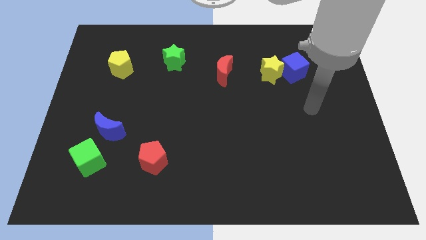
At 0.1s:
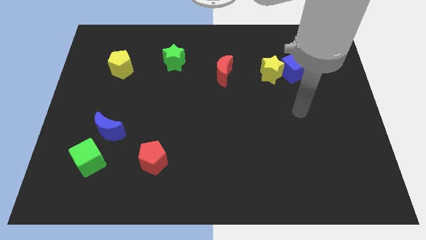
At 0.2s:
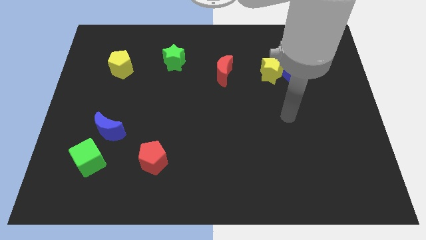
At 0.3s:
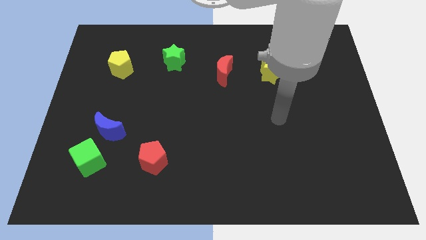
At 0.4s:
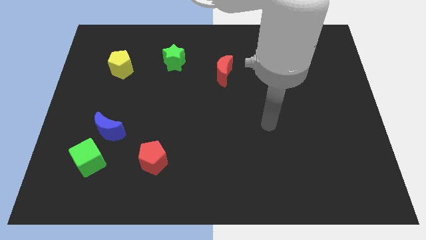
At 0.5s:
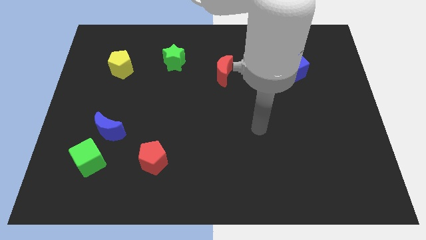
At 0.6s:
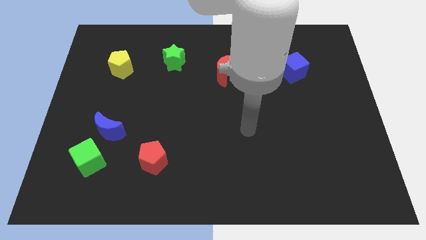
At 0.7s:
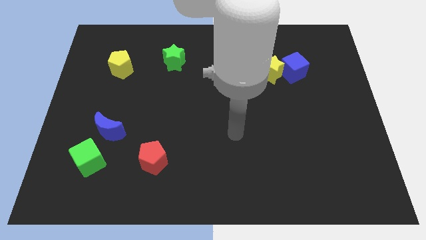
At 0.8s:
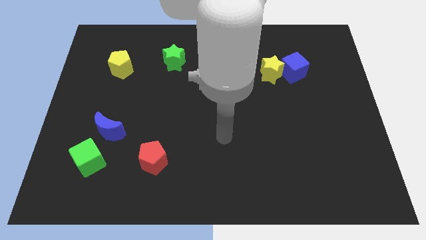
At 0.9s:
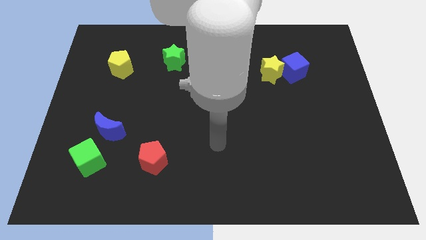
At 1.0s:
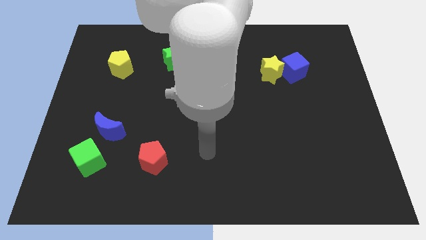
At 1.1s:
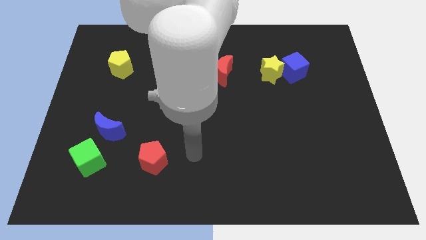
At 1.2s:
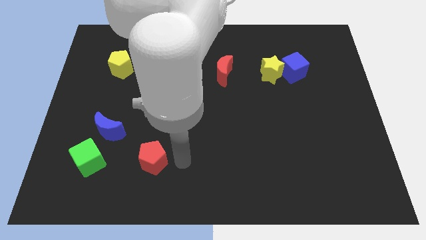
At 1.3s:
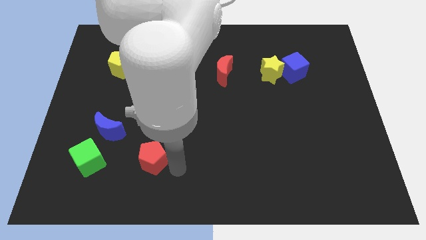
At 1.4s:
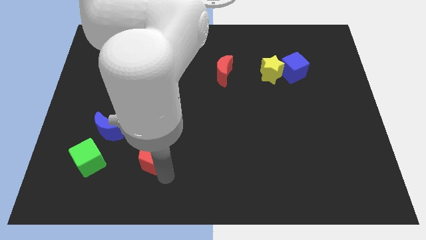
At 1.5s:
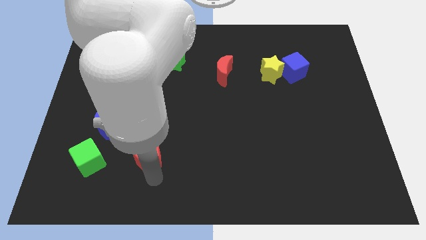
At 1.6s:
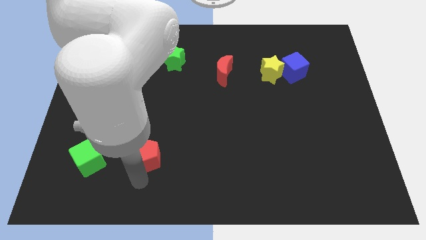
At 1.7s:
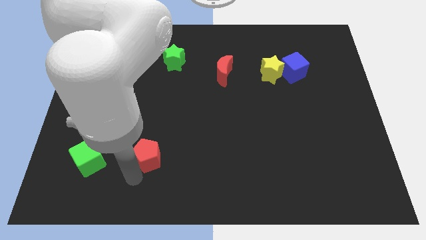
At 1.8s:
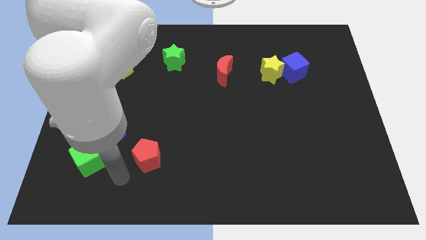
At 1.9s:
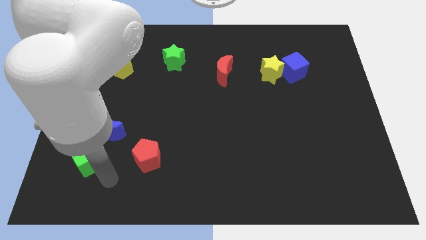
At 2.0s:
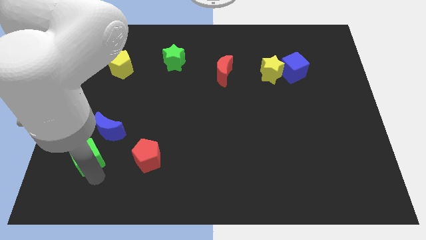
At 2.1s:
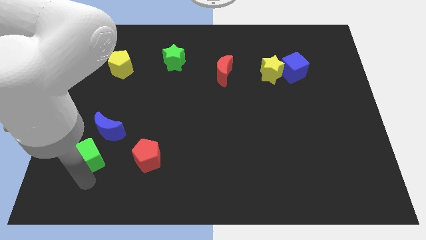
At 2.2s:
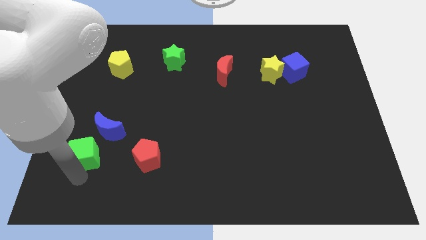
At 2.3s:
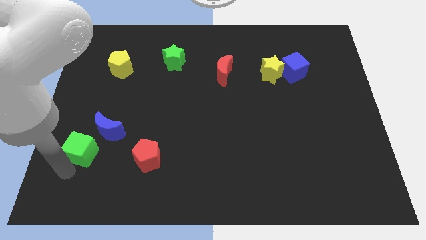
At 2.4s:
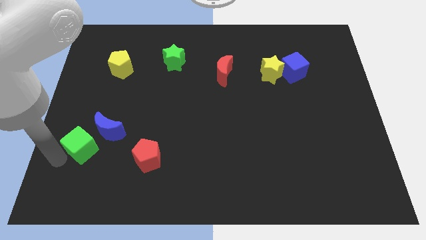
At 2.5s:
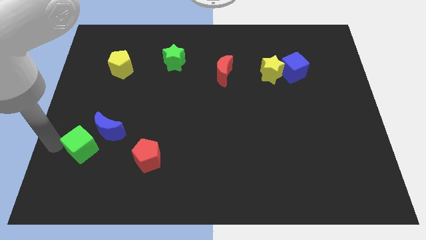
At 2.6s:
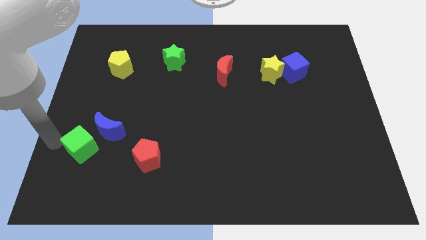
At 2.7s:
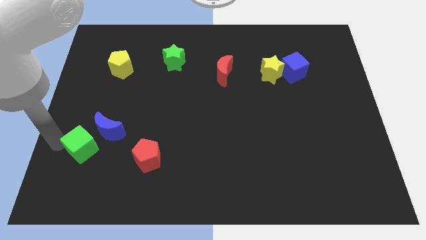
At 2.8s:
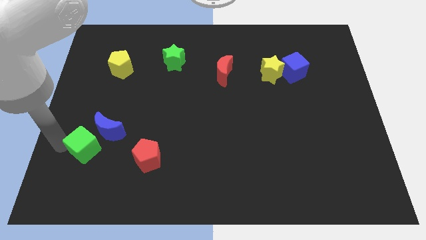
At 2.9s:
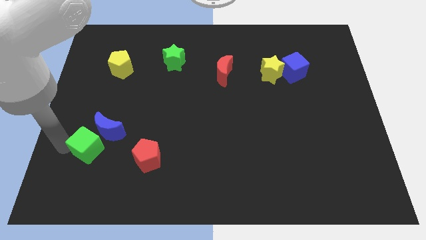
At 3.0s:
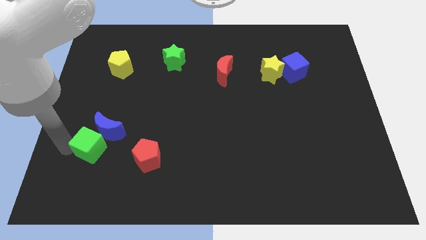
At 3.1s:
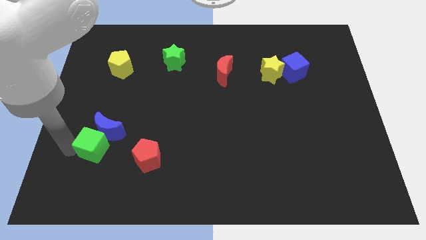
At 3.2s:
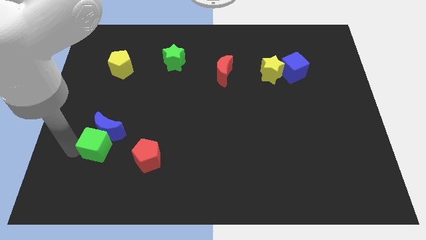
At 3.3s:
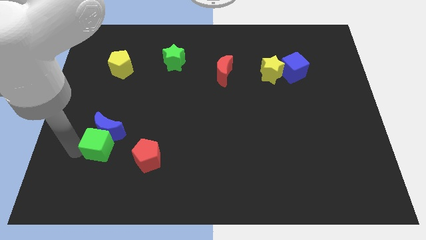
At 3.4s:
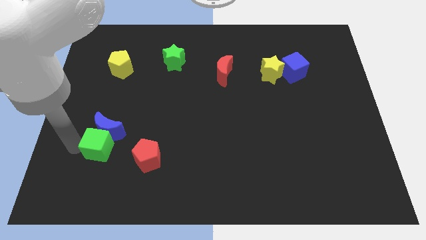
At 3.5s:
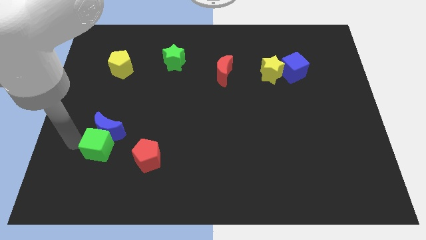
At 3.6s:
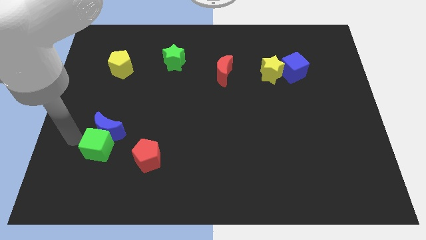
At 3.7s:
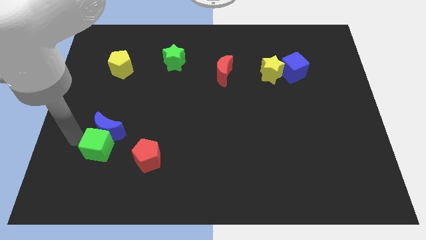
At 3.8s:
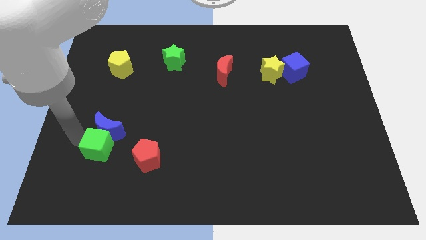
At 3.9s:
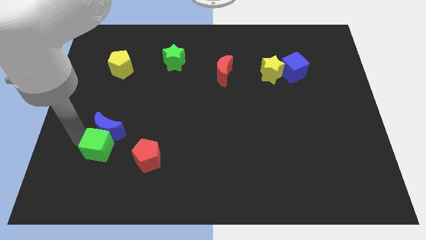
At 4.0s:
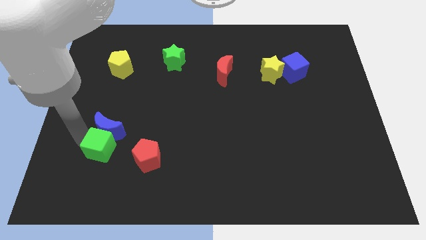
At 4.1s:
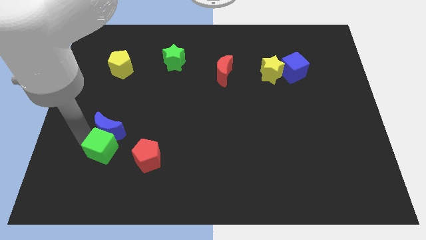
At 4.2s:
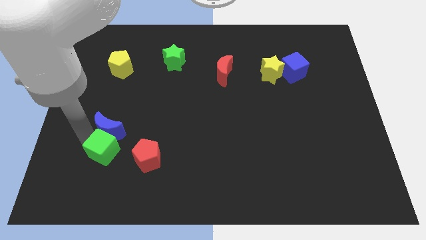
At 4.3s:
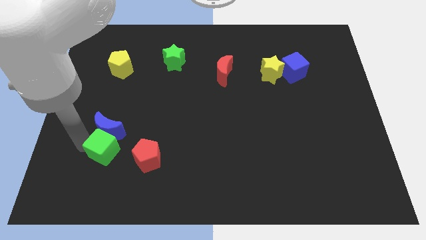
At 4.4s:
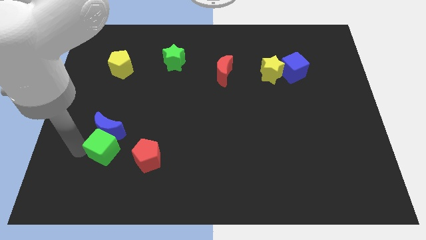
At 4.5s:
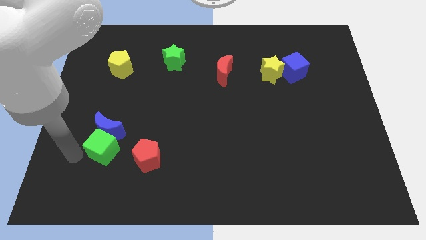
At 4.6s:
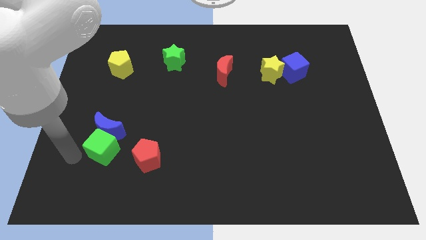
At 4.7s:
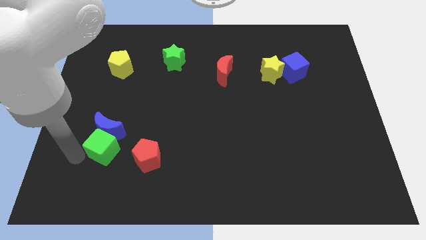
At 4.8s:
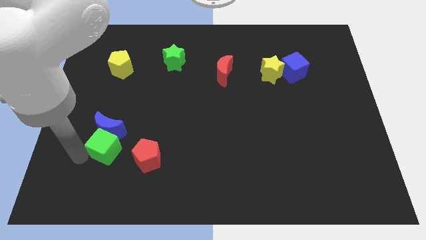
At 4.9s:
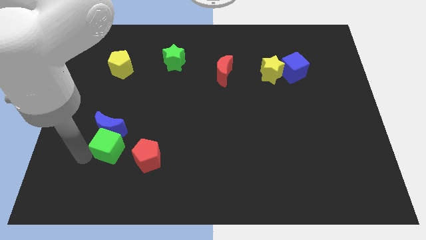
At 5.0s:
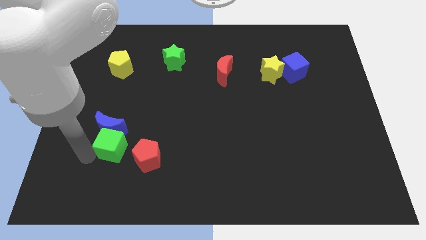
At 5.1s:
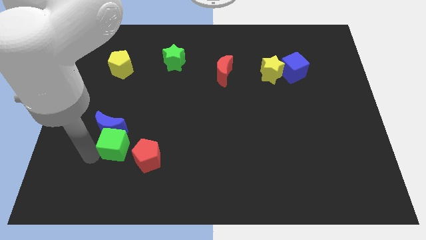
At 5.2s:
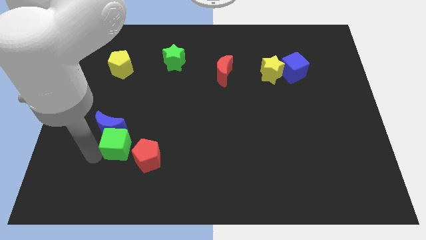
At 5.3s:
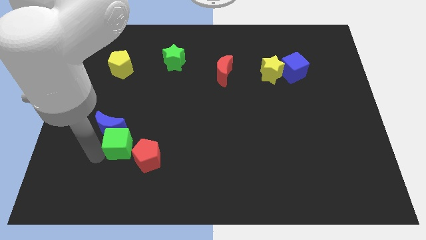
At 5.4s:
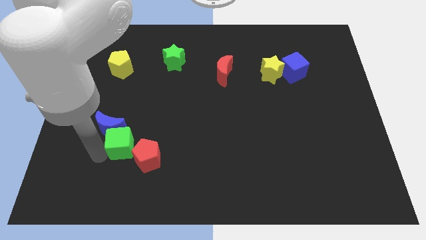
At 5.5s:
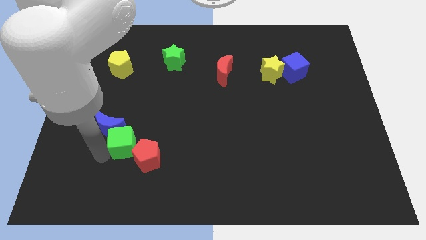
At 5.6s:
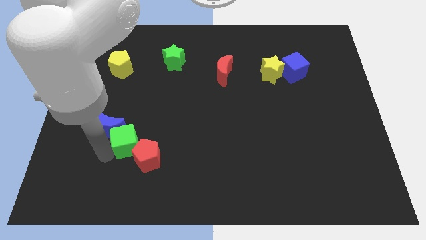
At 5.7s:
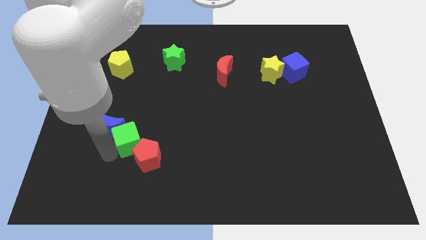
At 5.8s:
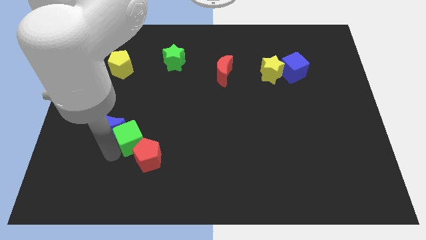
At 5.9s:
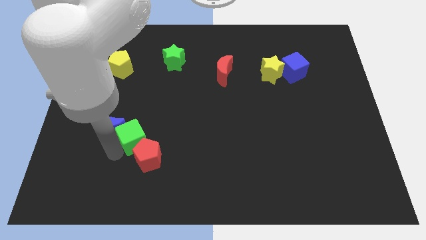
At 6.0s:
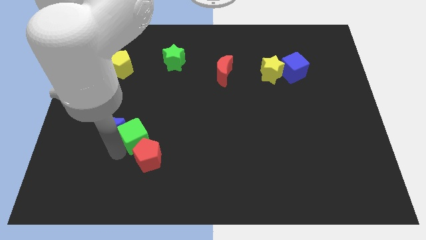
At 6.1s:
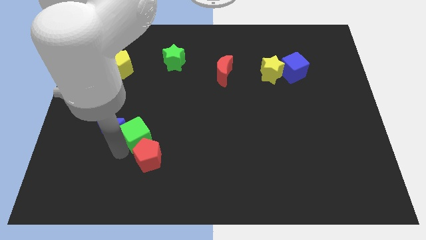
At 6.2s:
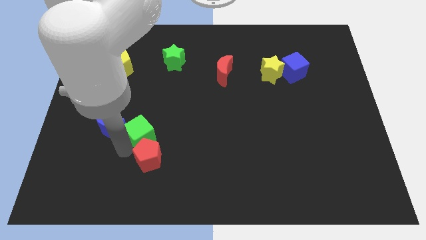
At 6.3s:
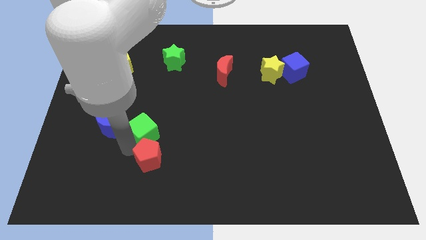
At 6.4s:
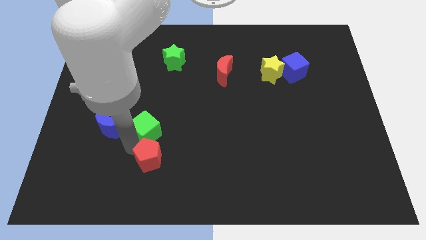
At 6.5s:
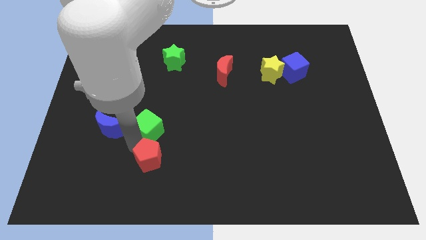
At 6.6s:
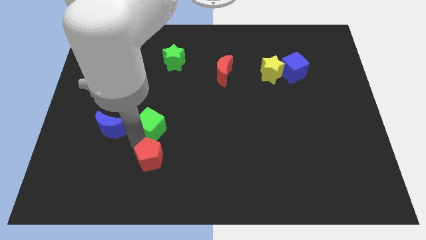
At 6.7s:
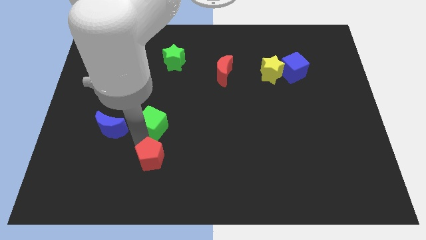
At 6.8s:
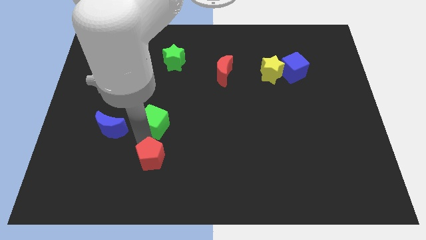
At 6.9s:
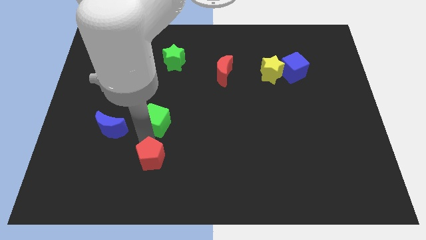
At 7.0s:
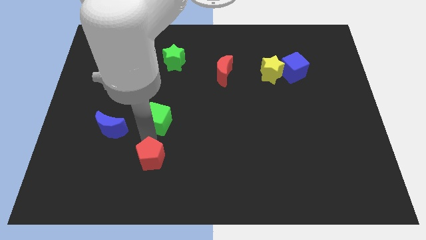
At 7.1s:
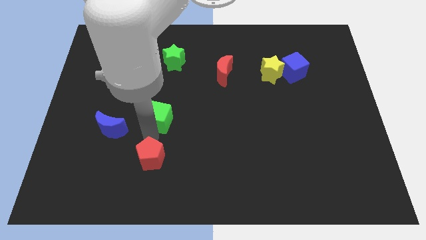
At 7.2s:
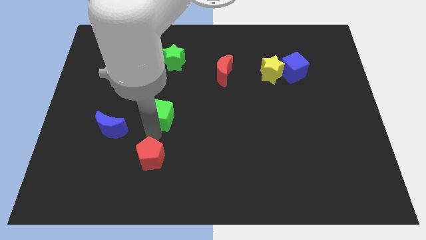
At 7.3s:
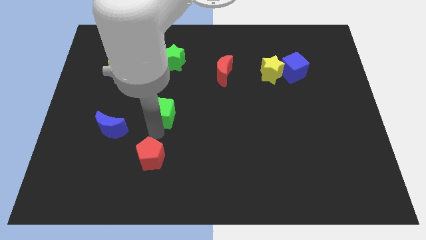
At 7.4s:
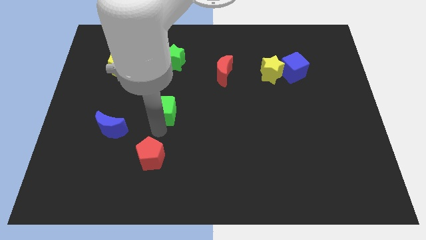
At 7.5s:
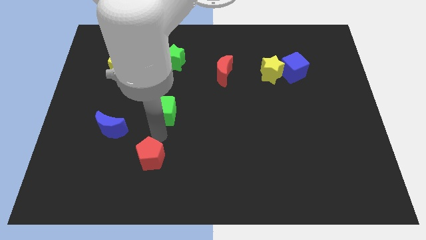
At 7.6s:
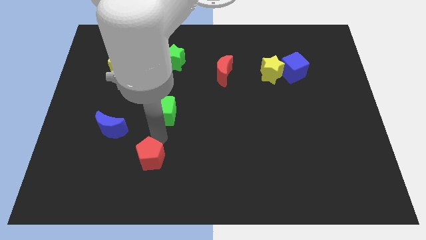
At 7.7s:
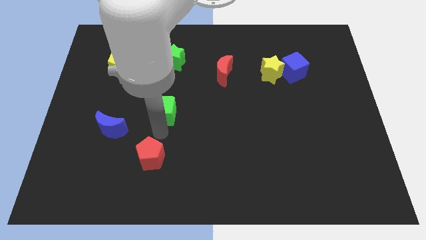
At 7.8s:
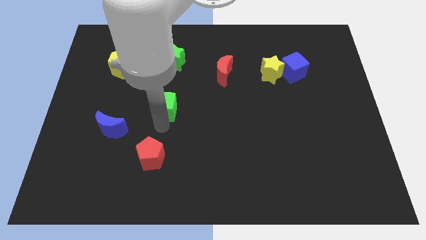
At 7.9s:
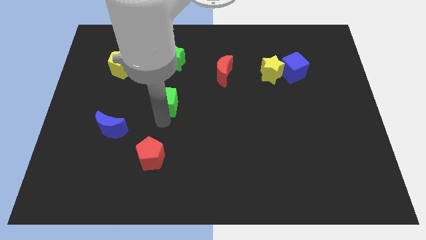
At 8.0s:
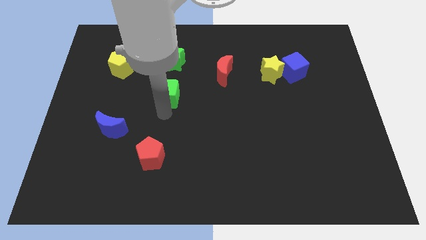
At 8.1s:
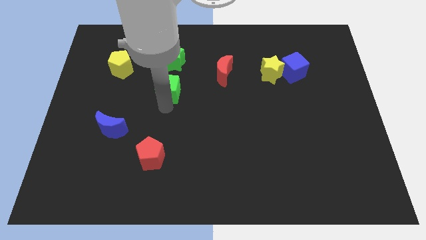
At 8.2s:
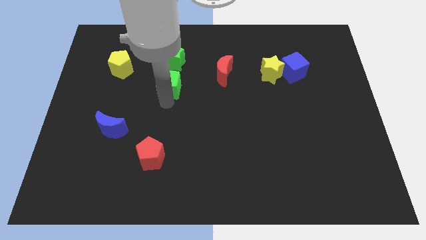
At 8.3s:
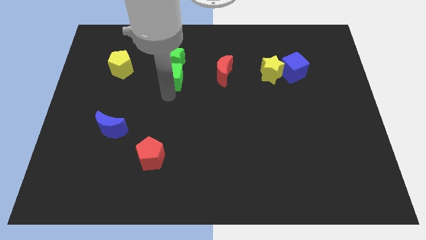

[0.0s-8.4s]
put the green cube towards the green star
